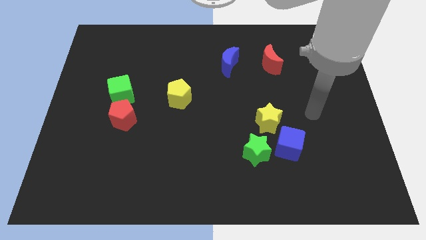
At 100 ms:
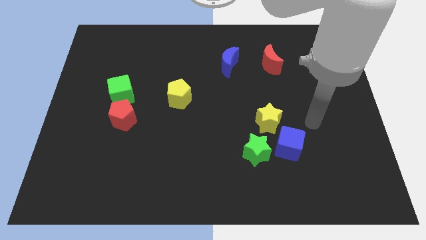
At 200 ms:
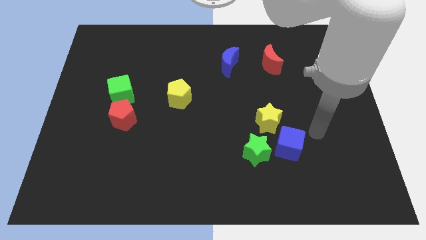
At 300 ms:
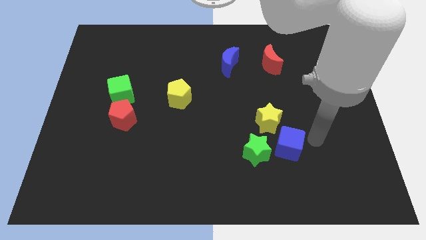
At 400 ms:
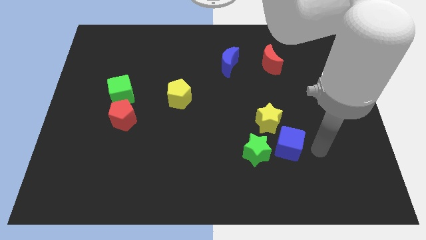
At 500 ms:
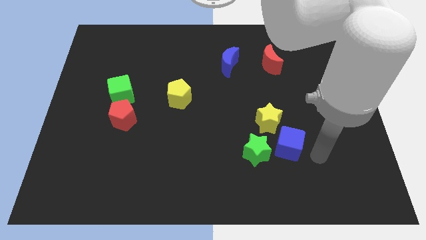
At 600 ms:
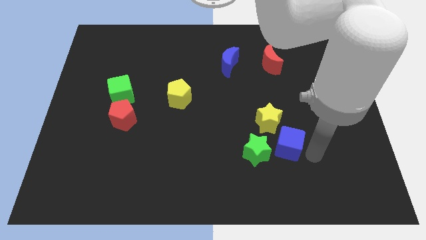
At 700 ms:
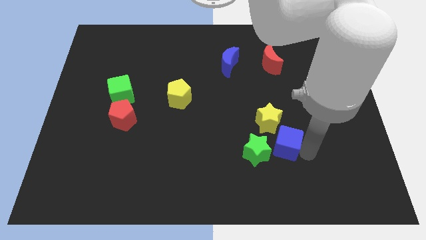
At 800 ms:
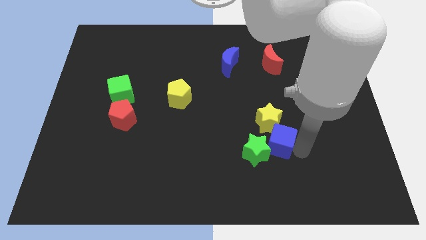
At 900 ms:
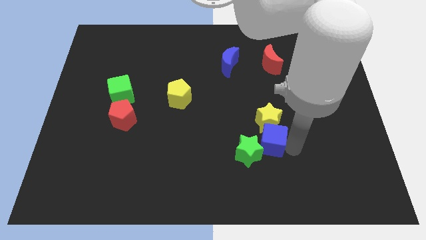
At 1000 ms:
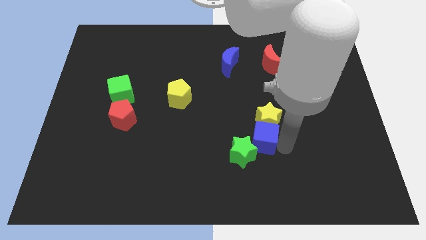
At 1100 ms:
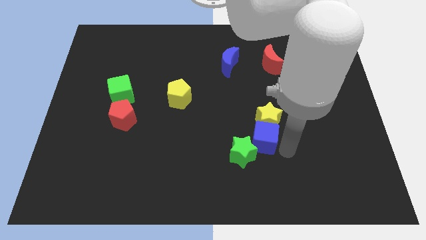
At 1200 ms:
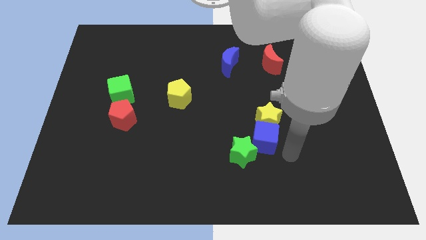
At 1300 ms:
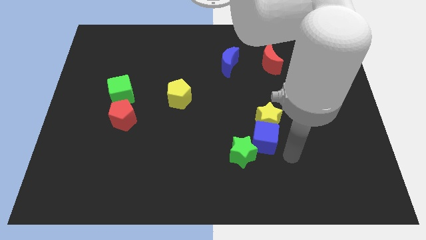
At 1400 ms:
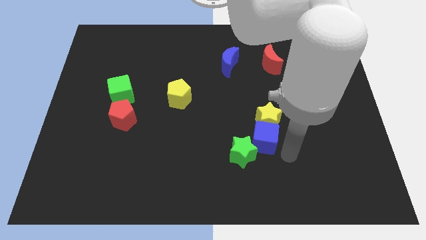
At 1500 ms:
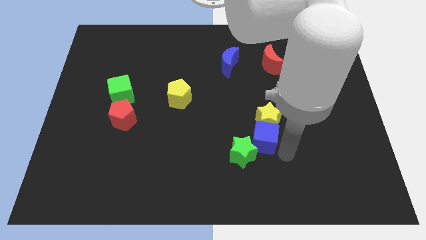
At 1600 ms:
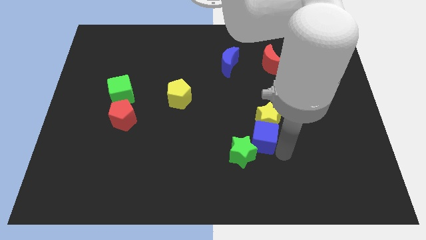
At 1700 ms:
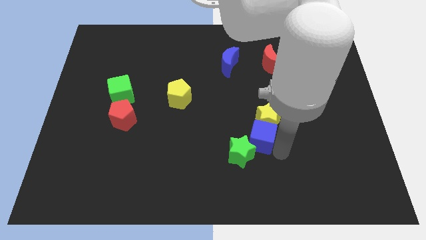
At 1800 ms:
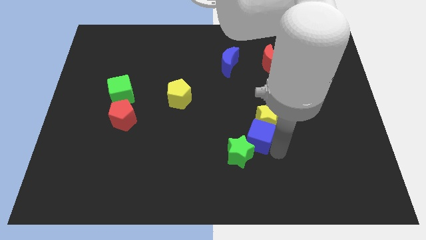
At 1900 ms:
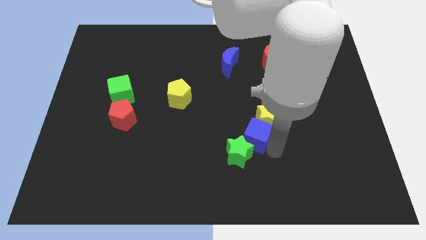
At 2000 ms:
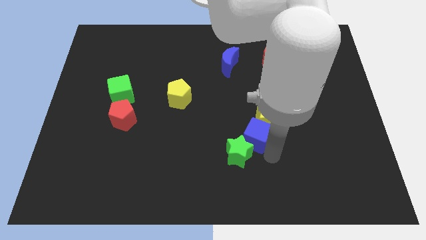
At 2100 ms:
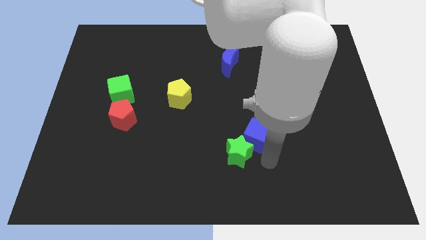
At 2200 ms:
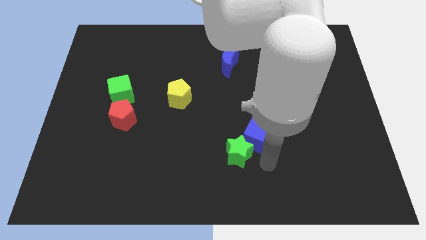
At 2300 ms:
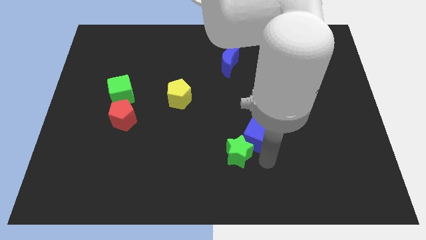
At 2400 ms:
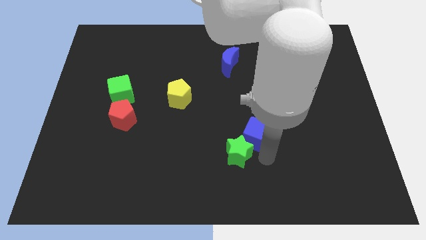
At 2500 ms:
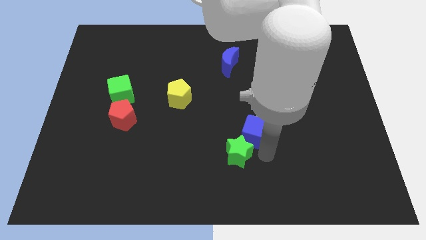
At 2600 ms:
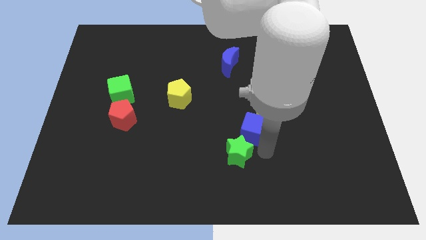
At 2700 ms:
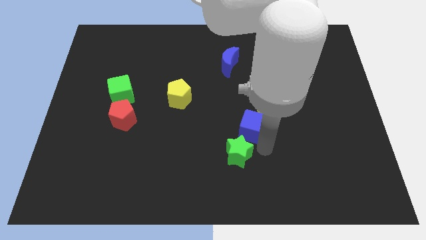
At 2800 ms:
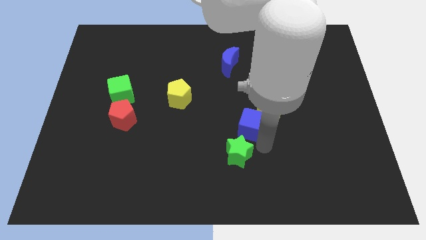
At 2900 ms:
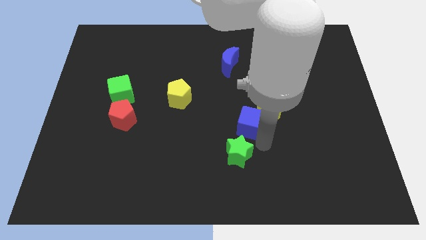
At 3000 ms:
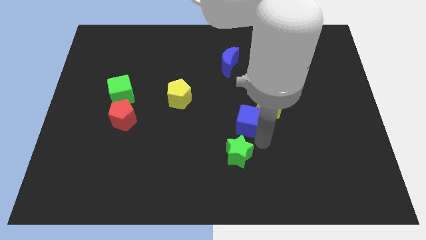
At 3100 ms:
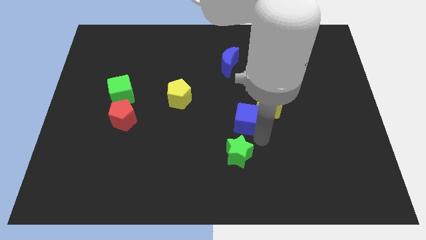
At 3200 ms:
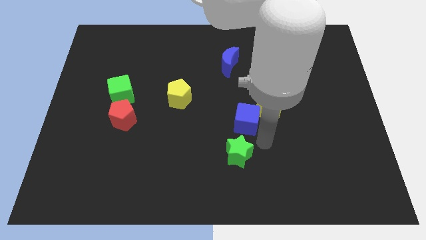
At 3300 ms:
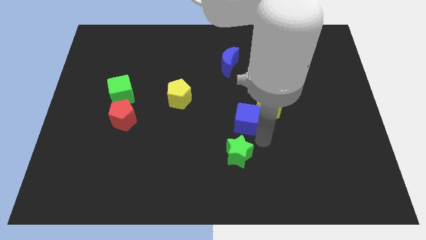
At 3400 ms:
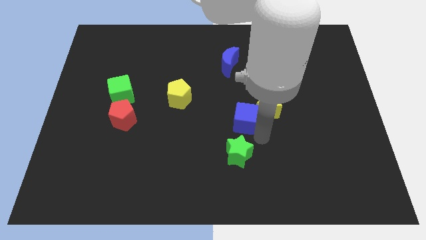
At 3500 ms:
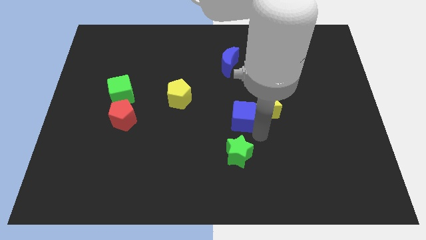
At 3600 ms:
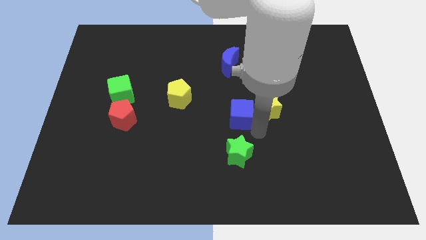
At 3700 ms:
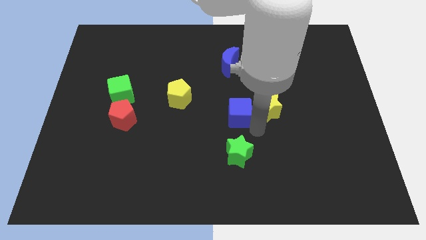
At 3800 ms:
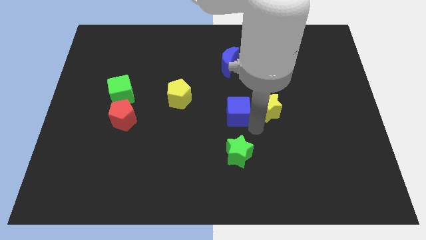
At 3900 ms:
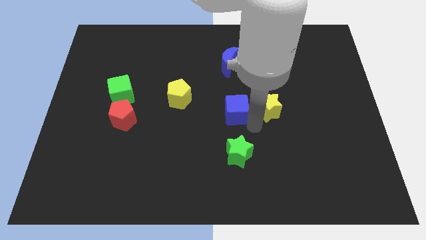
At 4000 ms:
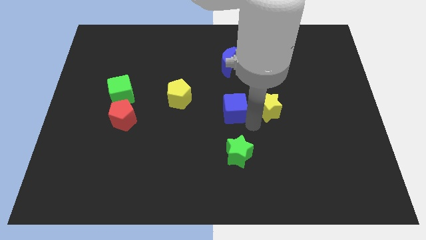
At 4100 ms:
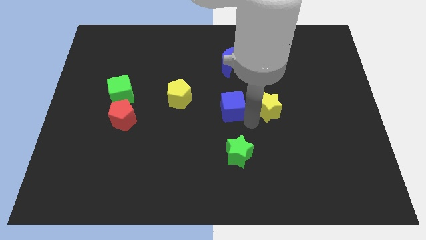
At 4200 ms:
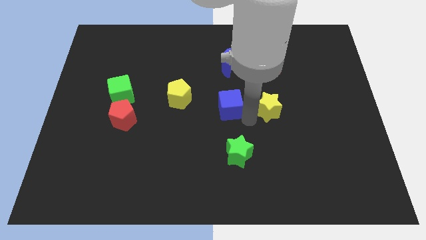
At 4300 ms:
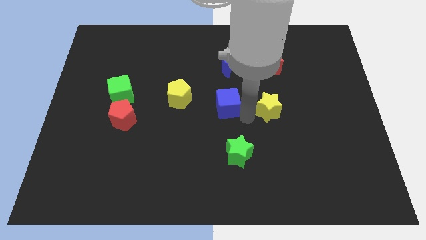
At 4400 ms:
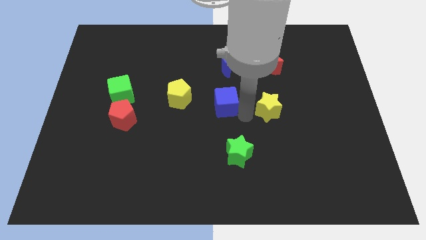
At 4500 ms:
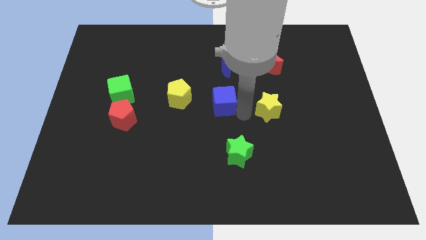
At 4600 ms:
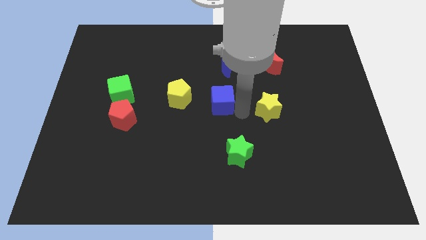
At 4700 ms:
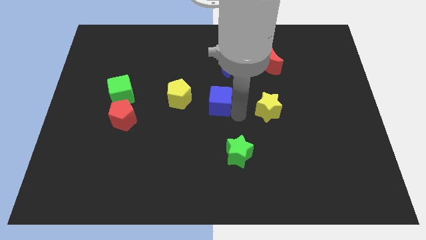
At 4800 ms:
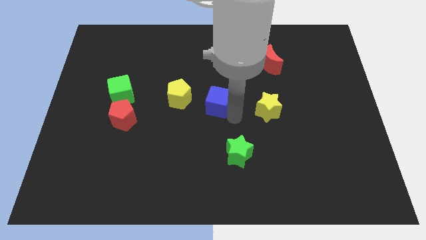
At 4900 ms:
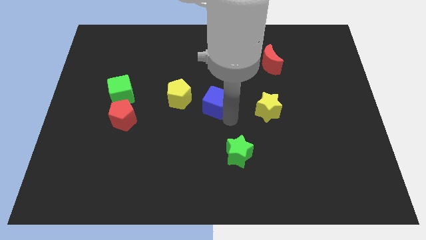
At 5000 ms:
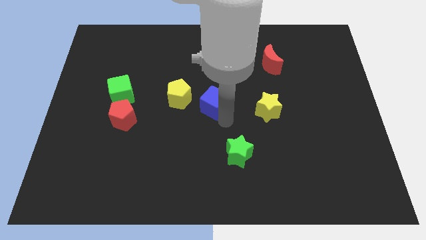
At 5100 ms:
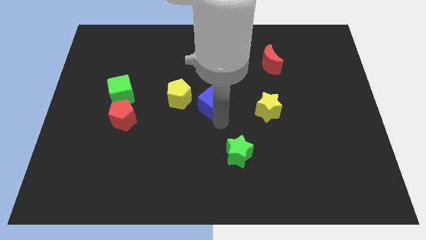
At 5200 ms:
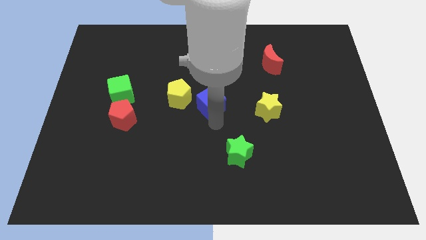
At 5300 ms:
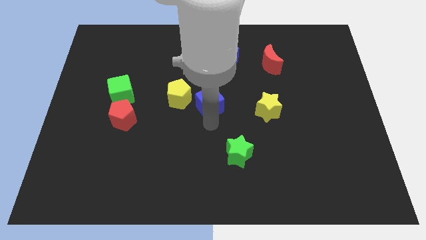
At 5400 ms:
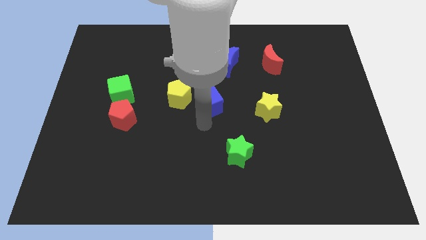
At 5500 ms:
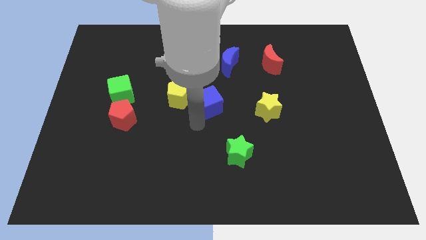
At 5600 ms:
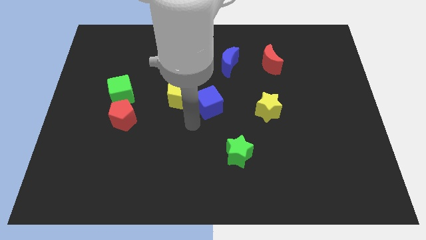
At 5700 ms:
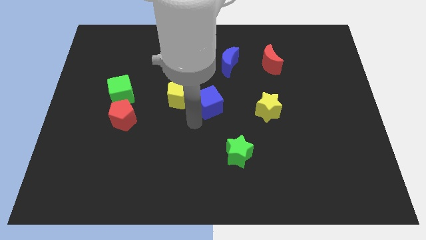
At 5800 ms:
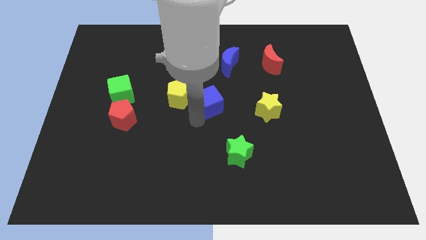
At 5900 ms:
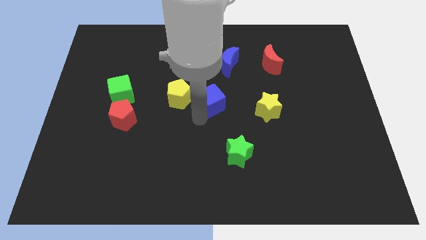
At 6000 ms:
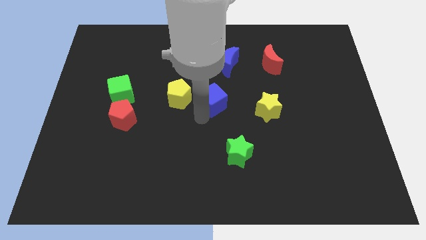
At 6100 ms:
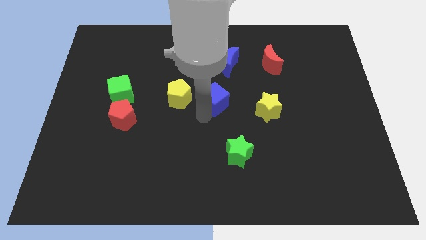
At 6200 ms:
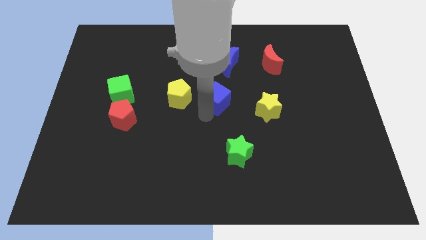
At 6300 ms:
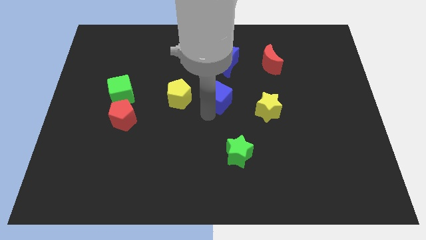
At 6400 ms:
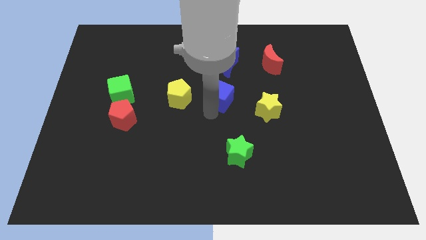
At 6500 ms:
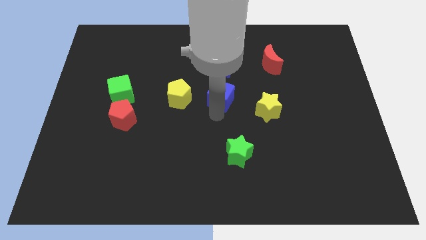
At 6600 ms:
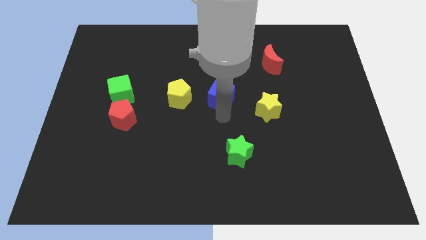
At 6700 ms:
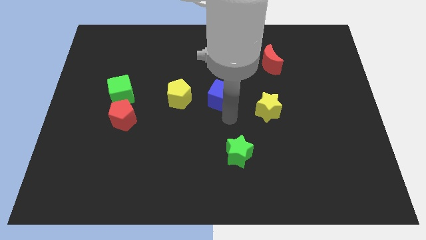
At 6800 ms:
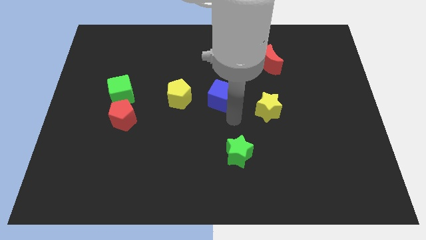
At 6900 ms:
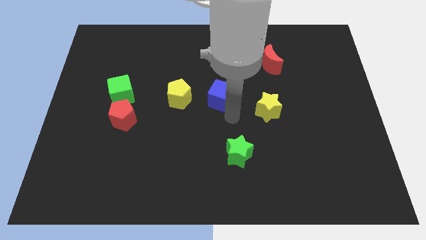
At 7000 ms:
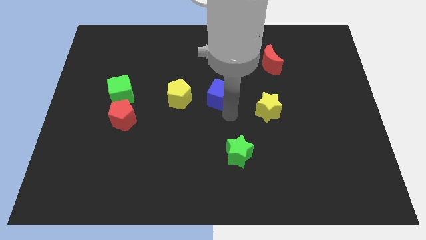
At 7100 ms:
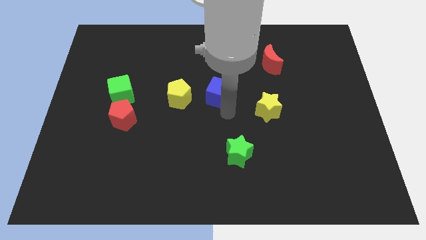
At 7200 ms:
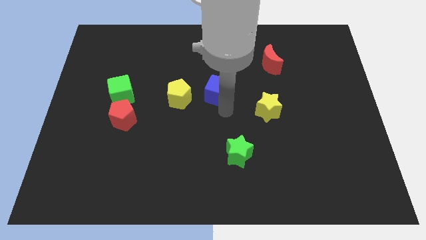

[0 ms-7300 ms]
push the blue cube diagonally down and to the left of the blue moon

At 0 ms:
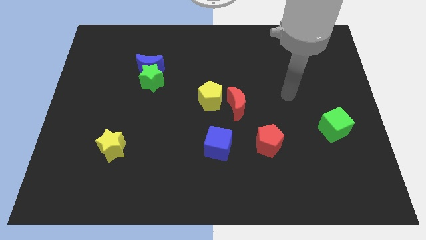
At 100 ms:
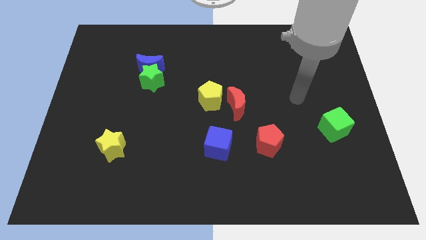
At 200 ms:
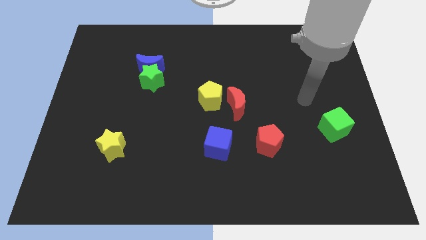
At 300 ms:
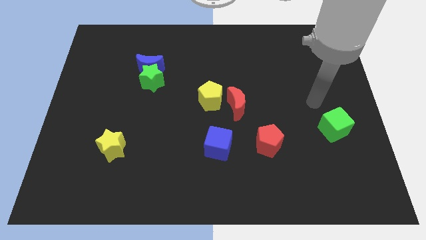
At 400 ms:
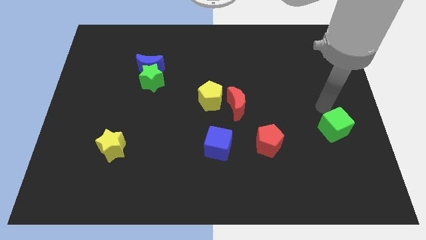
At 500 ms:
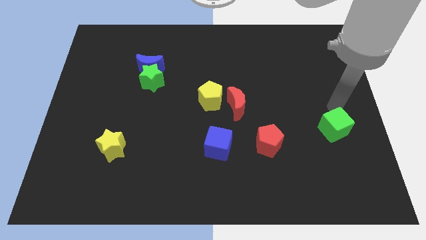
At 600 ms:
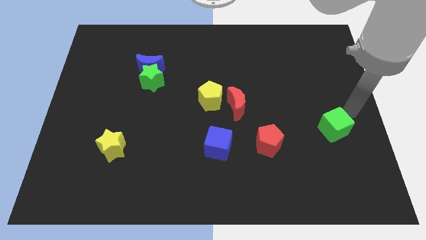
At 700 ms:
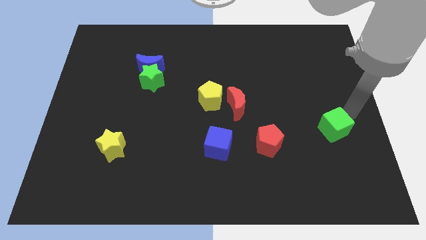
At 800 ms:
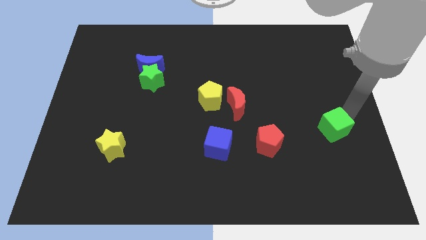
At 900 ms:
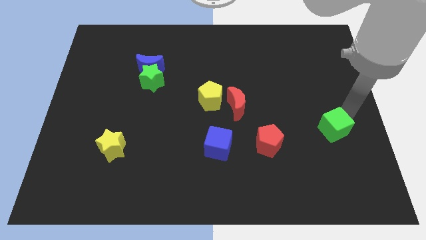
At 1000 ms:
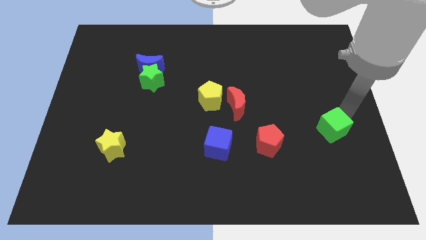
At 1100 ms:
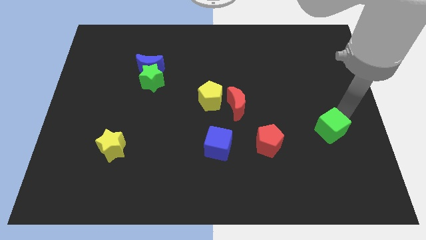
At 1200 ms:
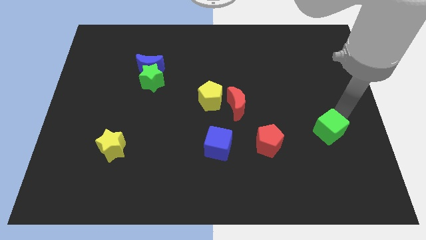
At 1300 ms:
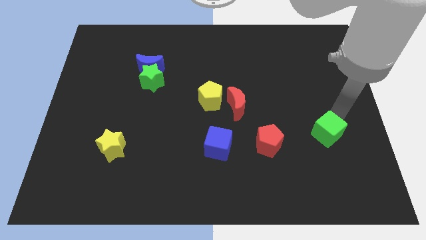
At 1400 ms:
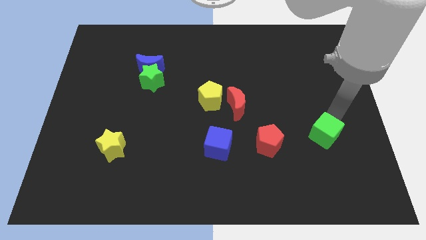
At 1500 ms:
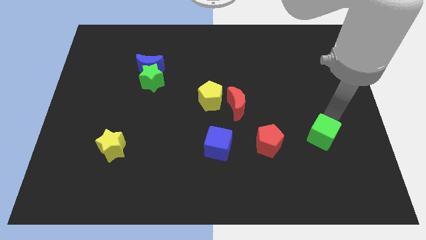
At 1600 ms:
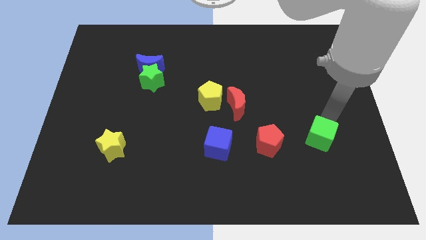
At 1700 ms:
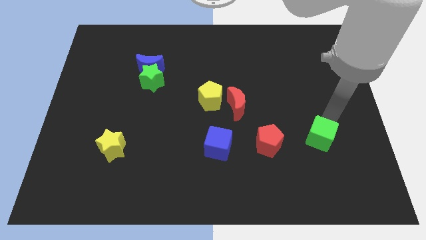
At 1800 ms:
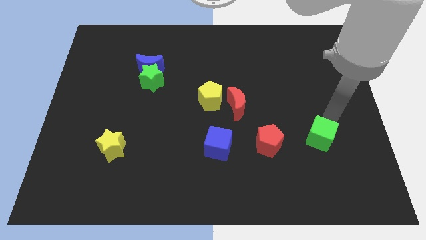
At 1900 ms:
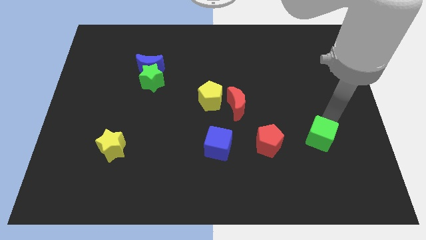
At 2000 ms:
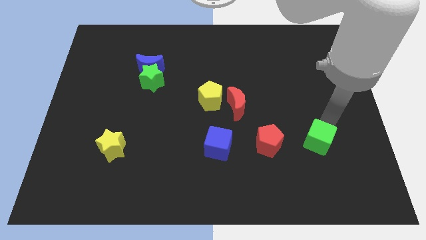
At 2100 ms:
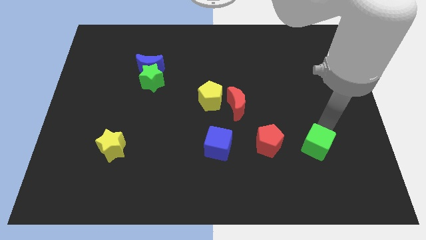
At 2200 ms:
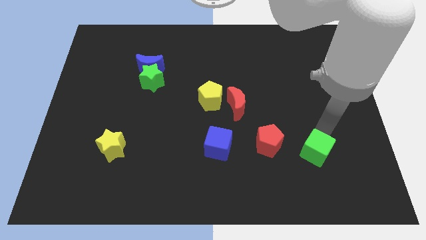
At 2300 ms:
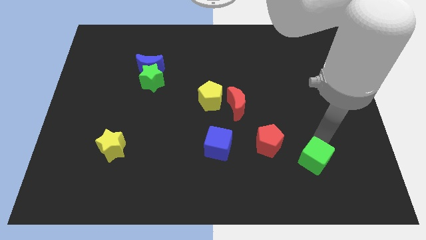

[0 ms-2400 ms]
slide the green cube to the bottom right of the red pentagon
